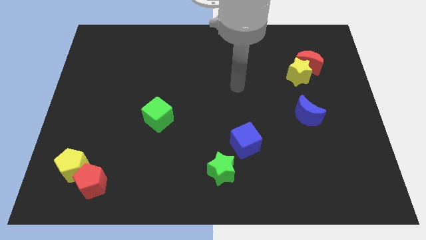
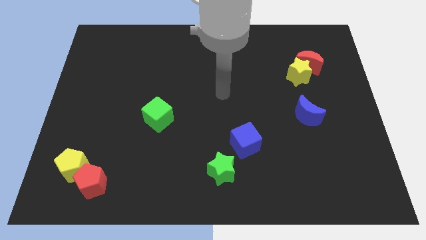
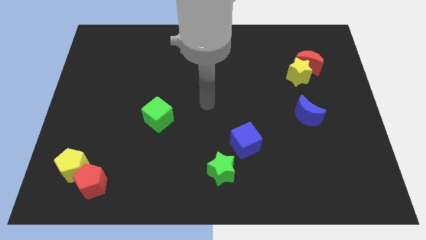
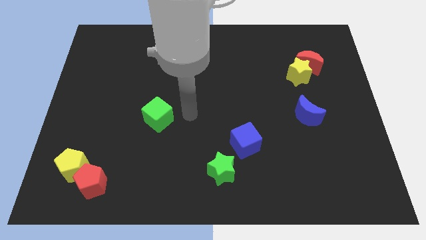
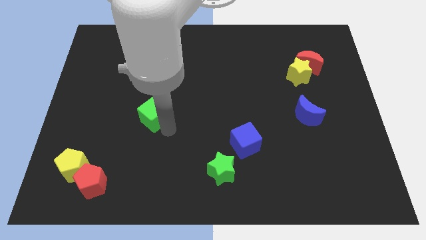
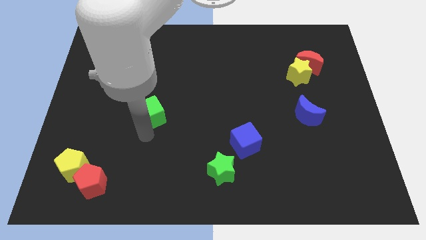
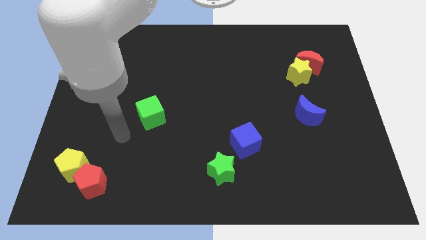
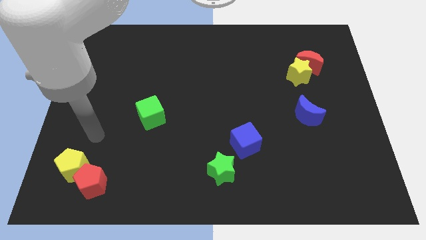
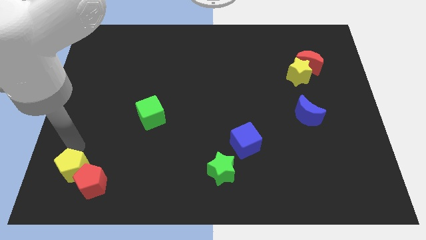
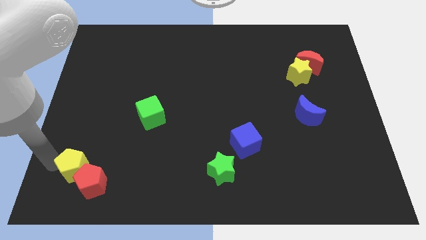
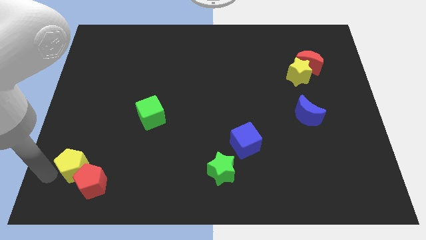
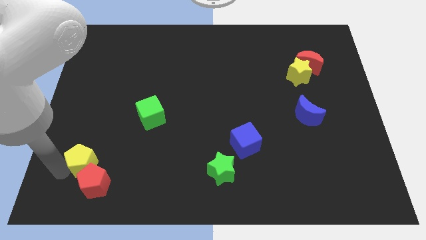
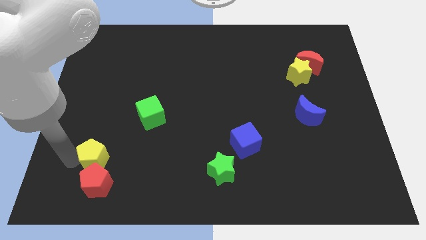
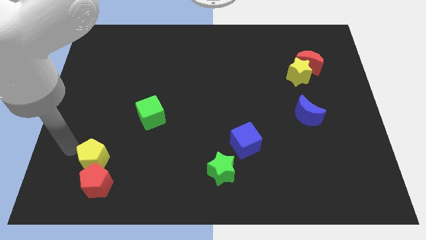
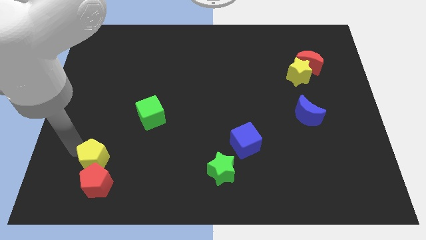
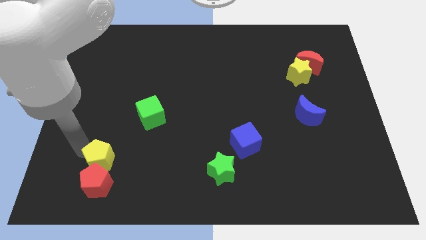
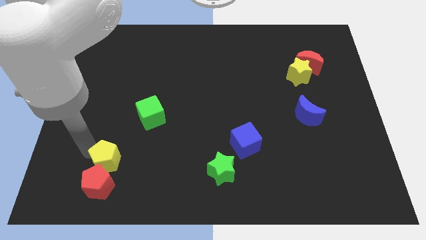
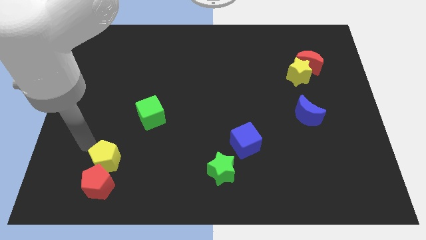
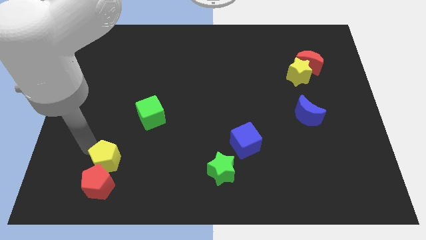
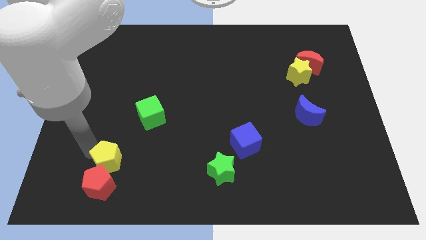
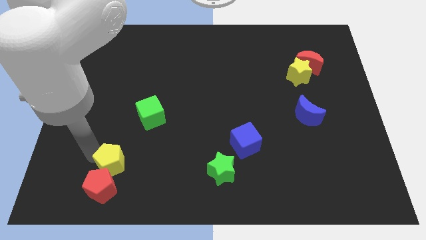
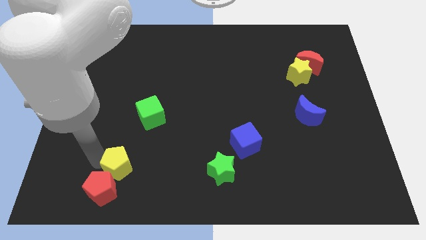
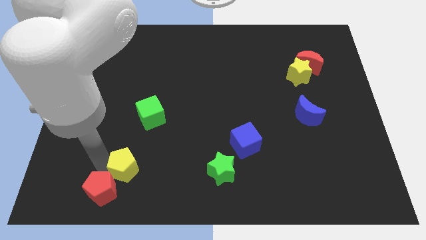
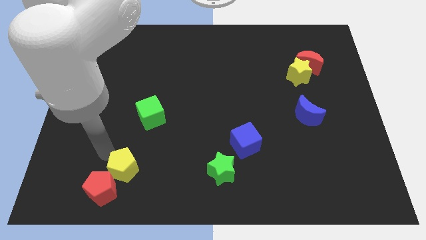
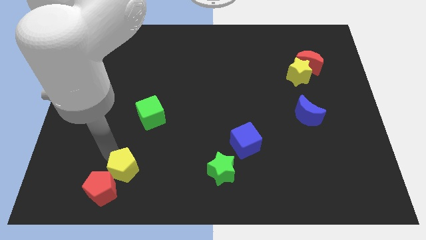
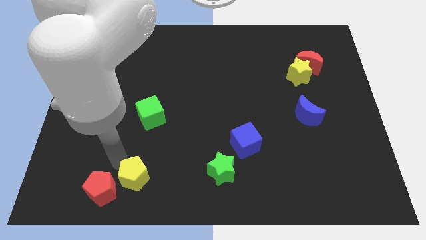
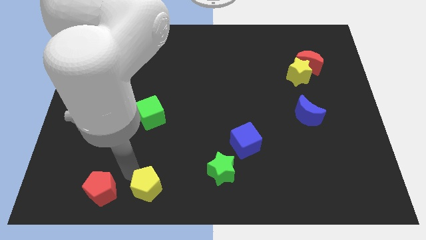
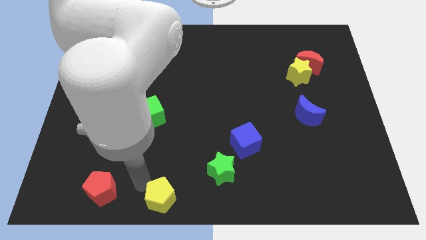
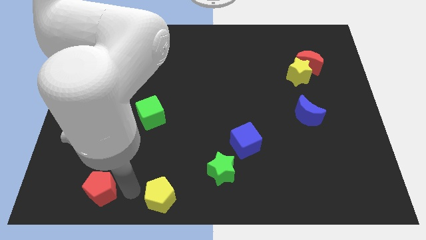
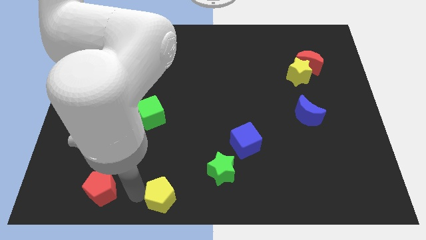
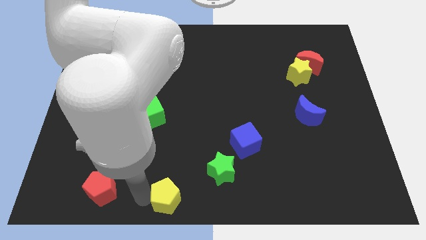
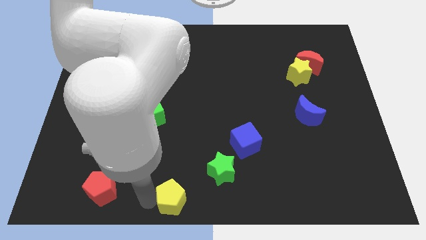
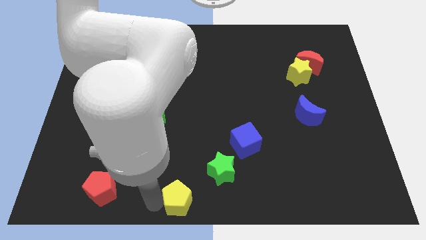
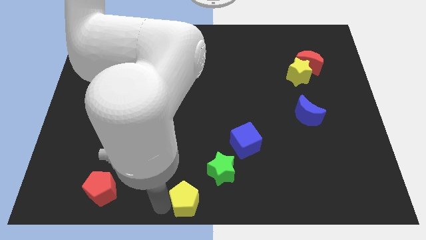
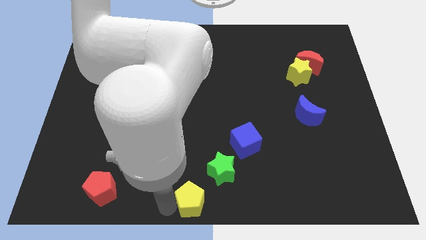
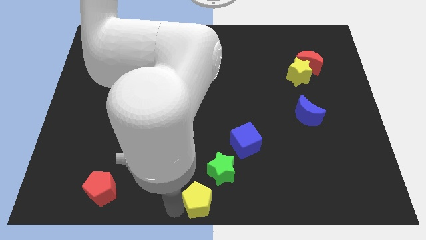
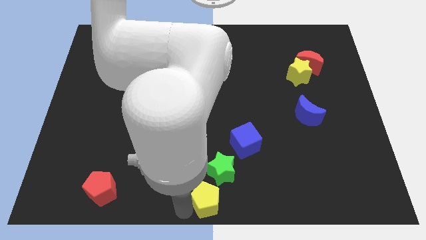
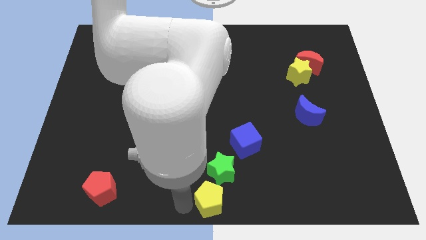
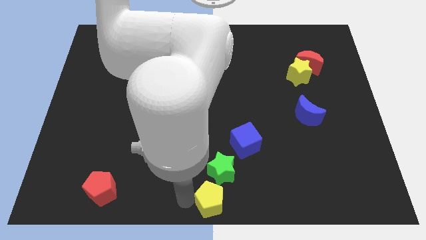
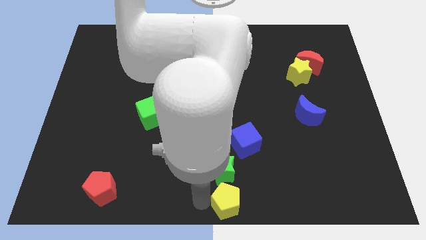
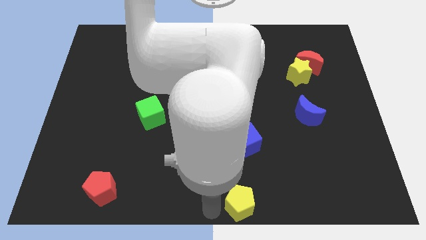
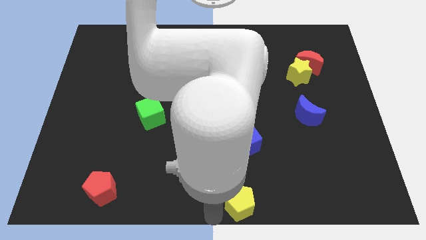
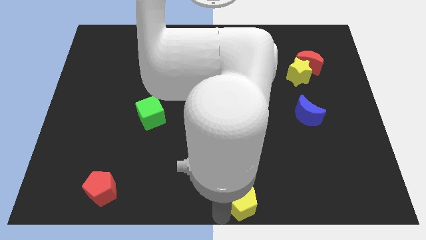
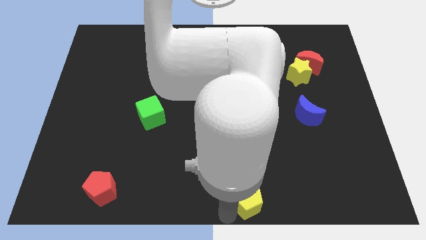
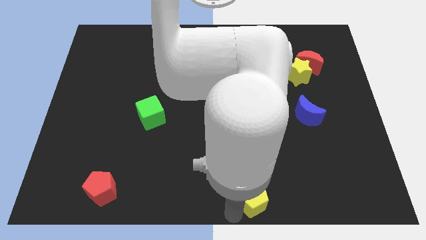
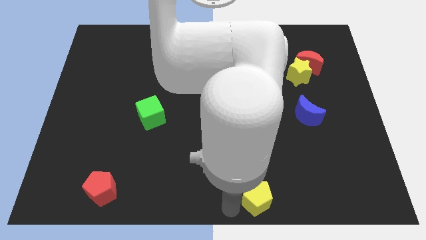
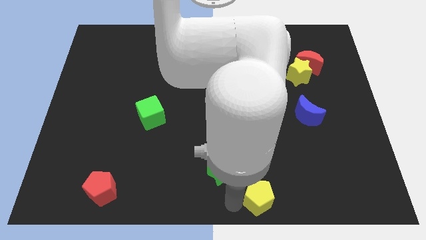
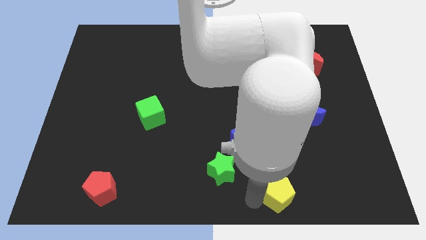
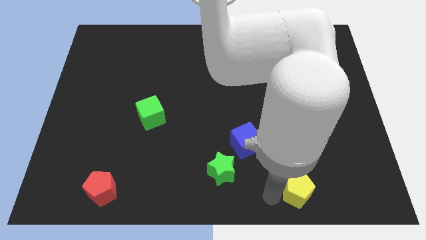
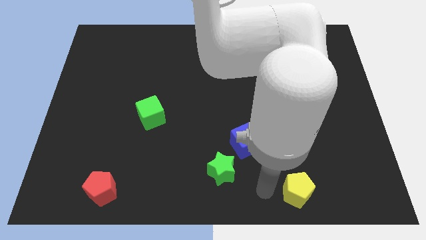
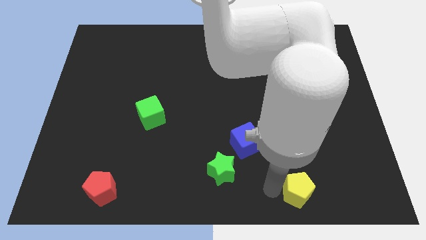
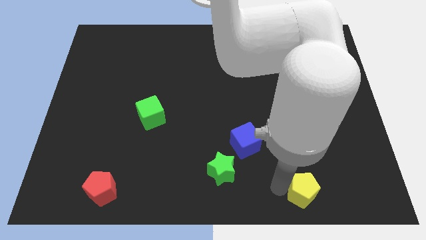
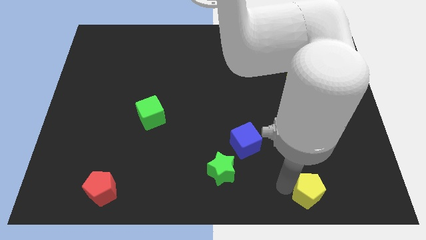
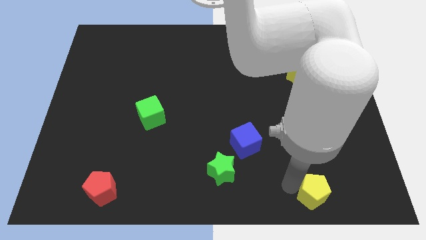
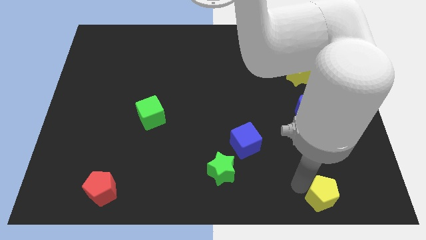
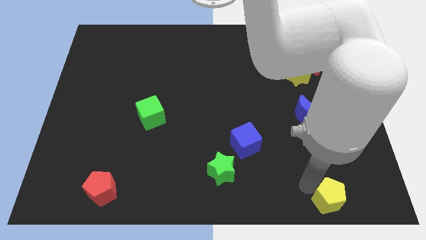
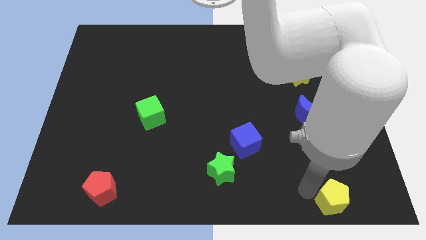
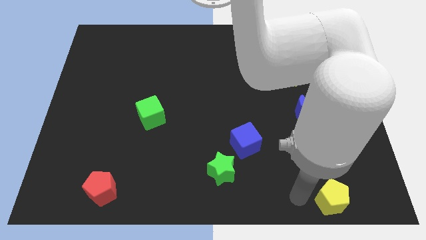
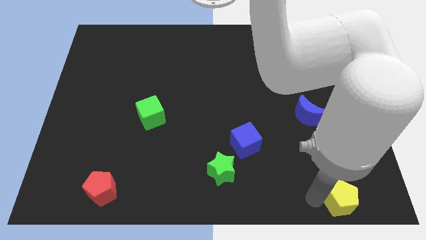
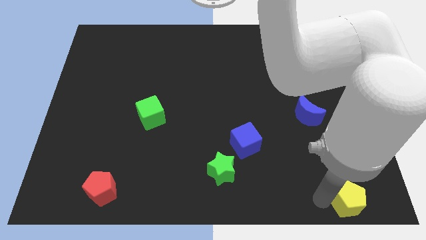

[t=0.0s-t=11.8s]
put the yellow pentagon to the bottom right of the board

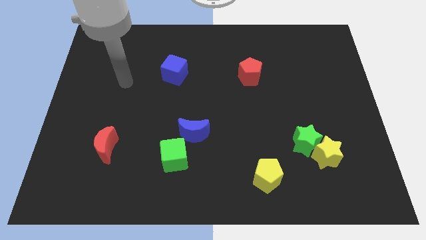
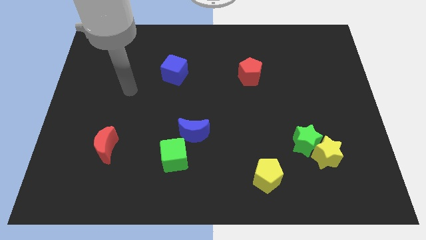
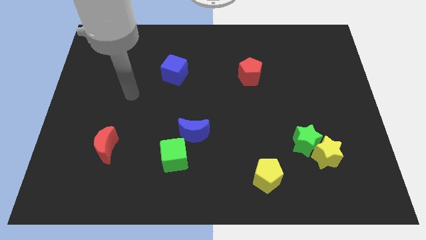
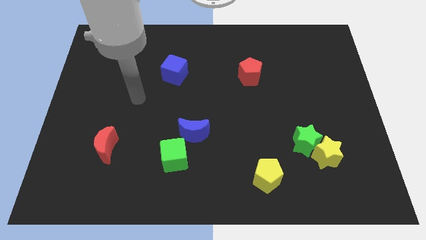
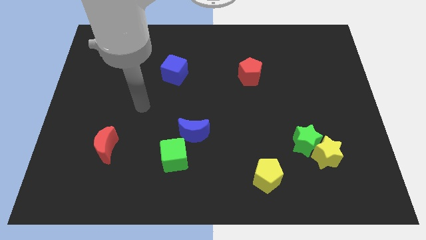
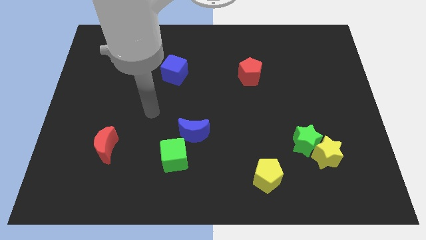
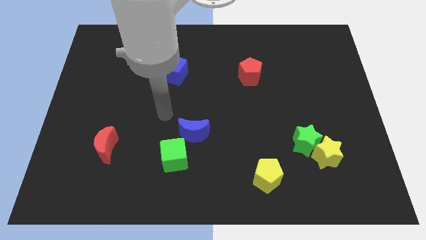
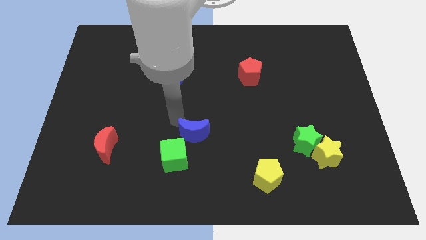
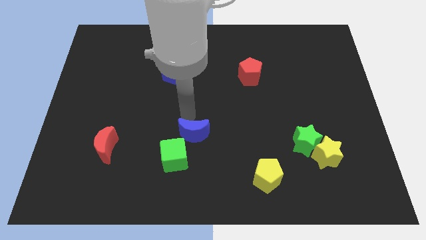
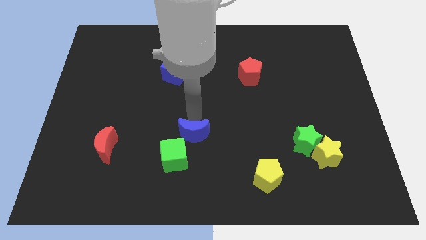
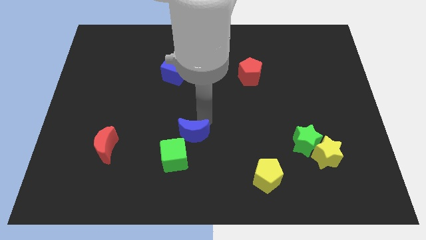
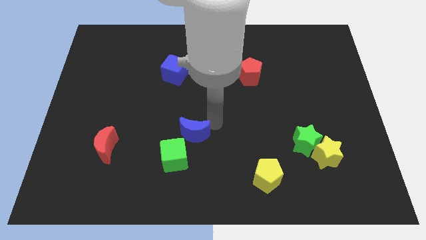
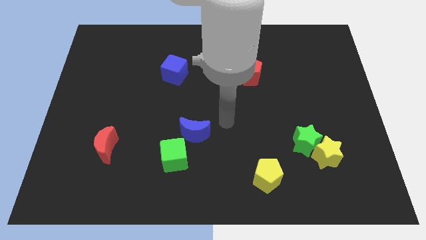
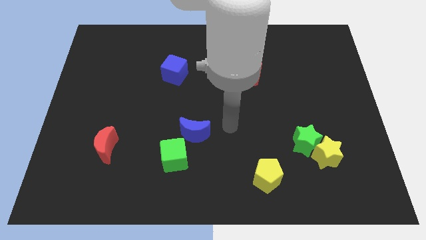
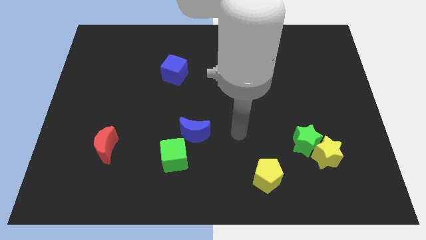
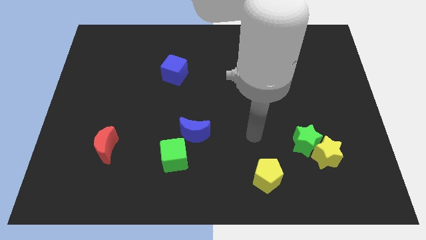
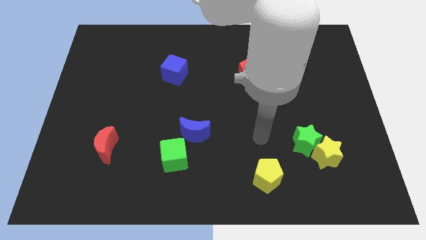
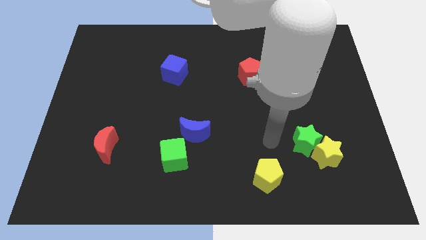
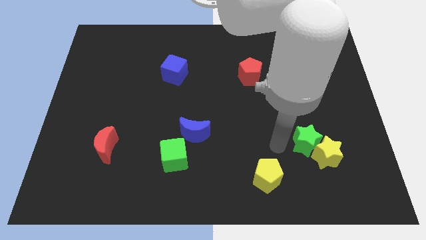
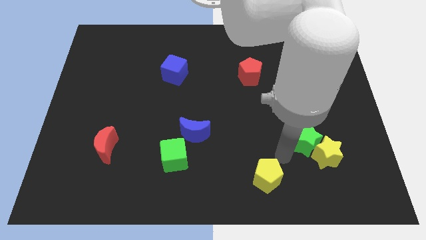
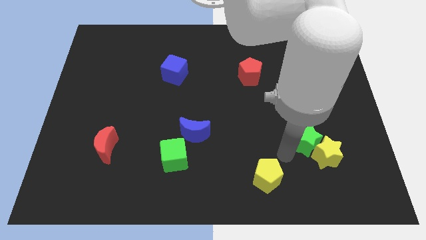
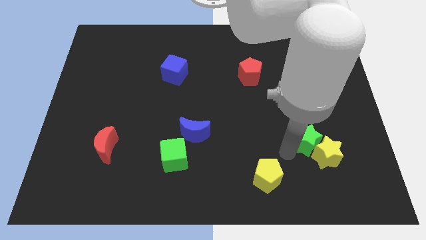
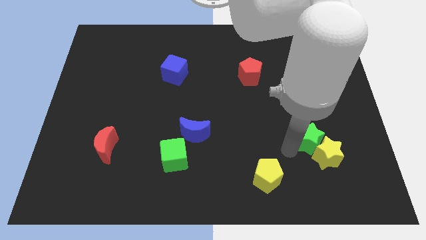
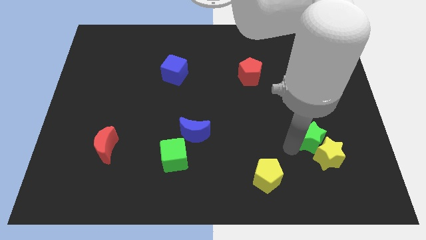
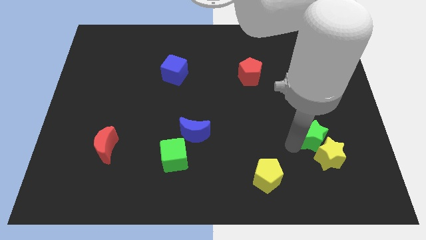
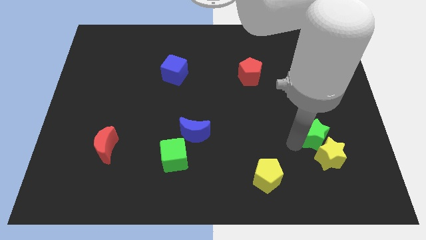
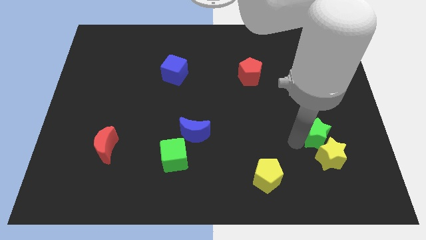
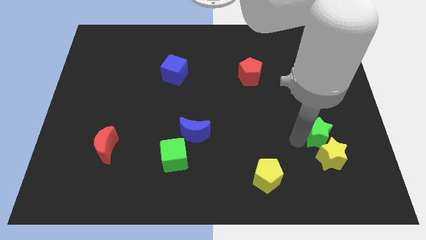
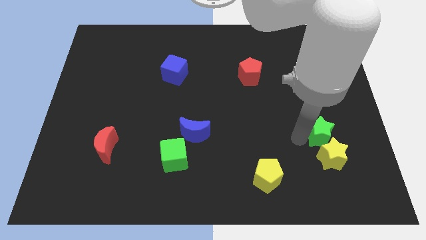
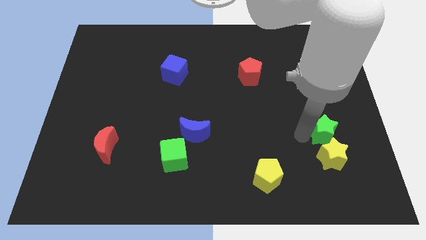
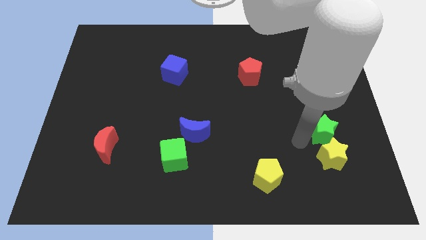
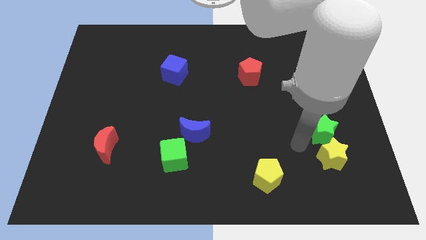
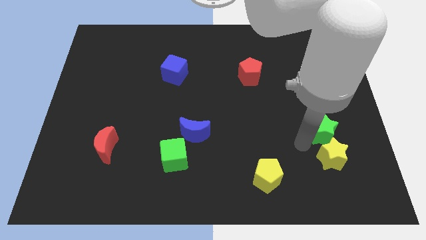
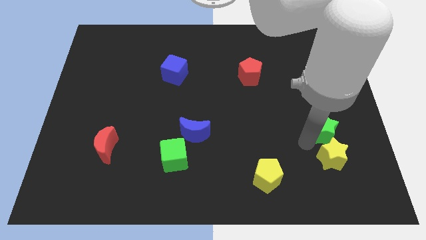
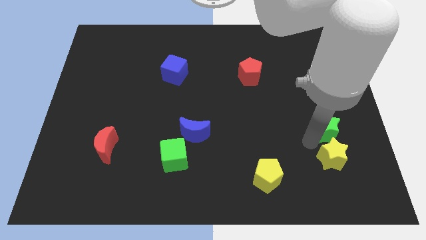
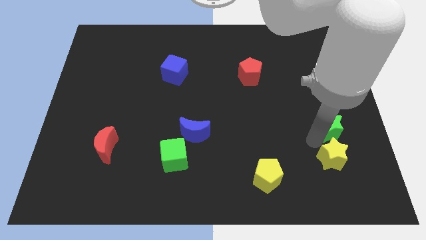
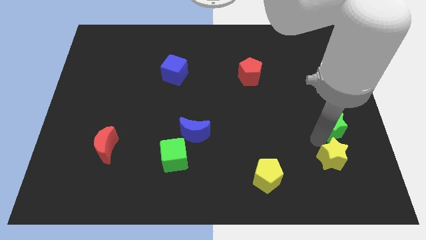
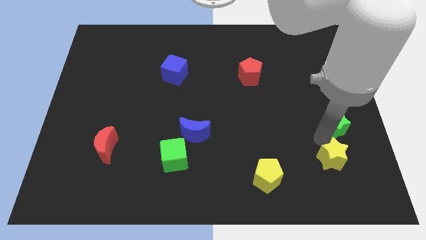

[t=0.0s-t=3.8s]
put the green star to the right side of the board
